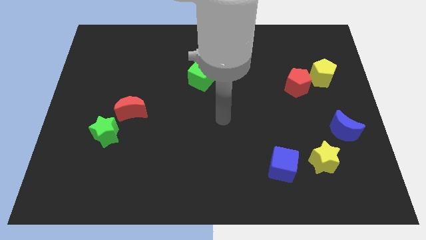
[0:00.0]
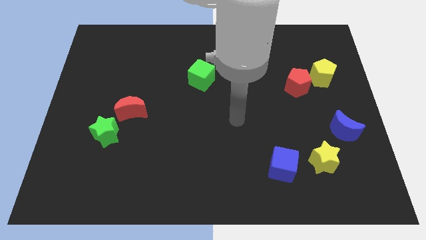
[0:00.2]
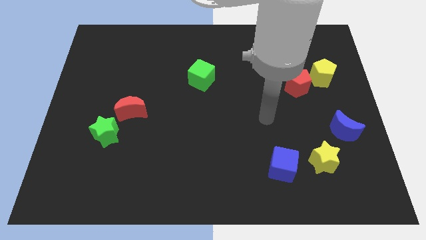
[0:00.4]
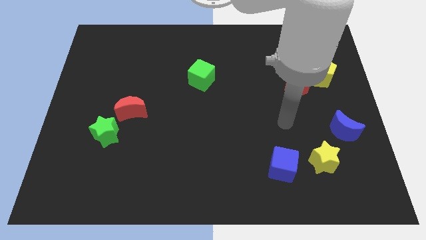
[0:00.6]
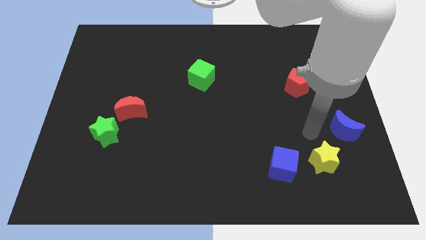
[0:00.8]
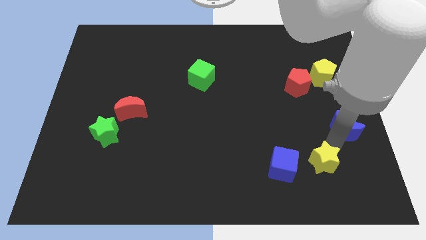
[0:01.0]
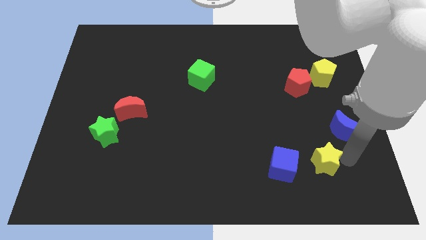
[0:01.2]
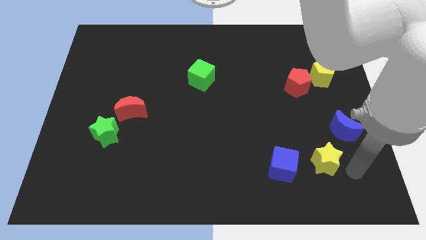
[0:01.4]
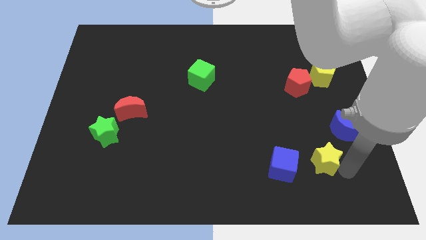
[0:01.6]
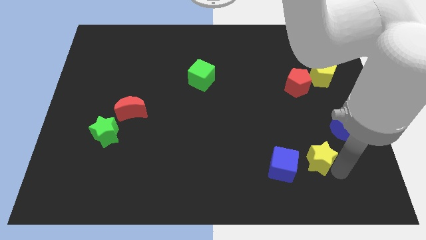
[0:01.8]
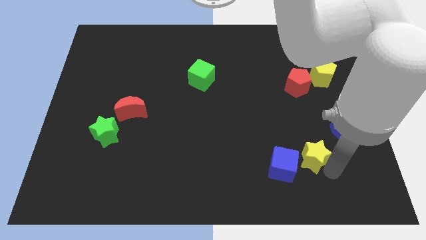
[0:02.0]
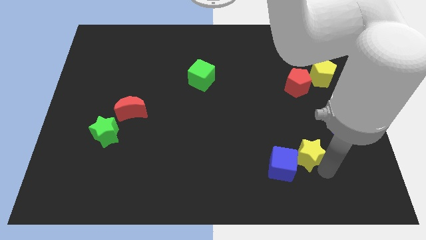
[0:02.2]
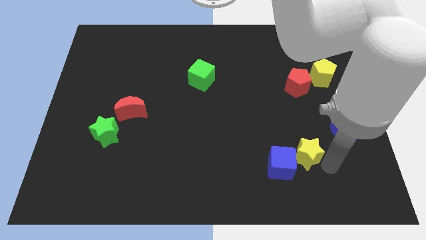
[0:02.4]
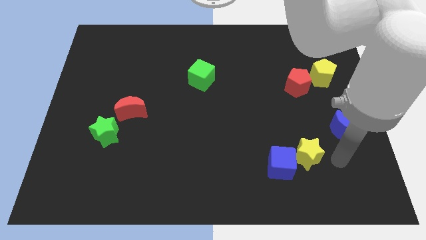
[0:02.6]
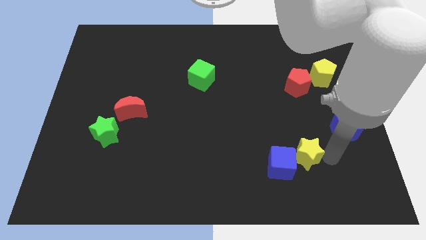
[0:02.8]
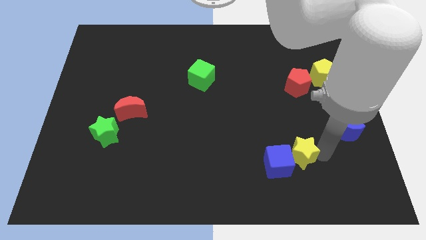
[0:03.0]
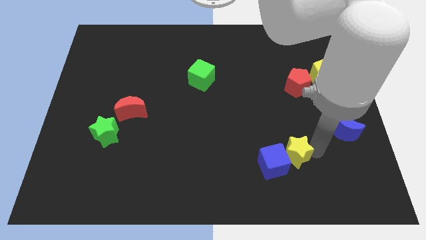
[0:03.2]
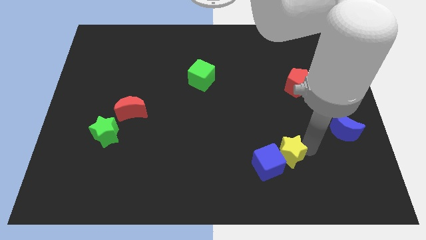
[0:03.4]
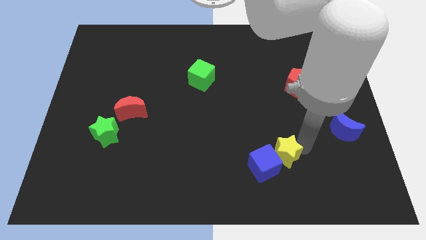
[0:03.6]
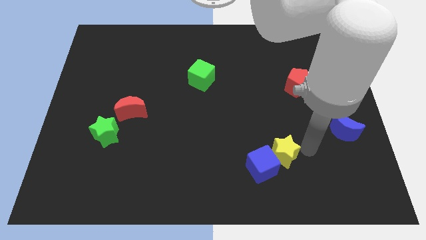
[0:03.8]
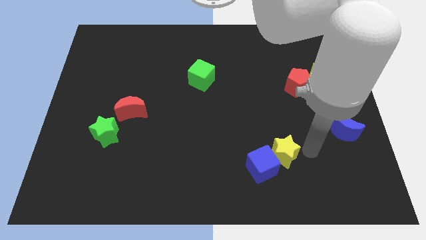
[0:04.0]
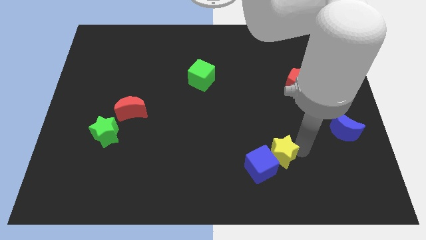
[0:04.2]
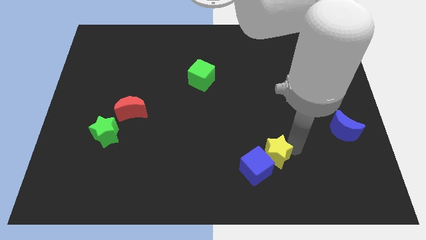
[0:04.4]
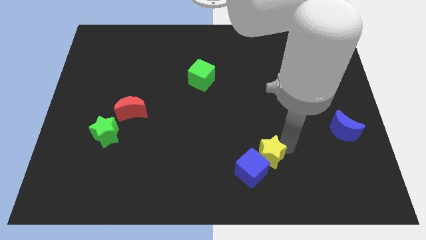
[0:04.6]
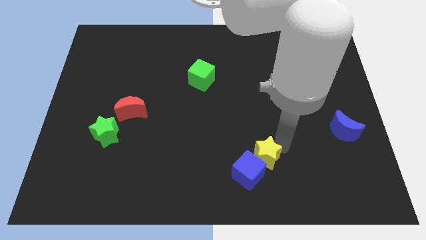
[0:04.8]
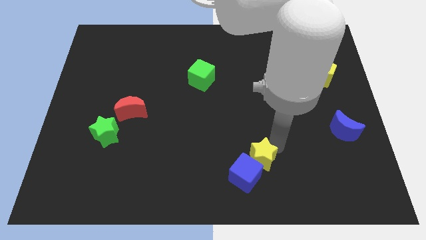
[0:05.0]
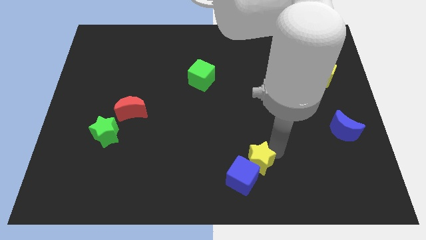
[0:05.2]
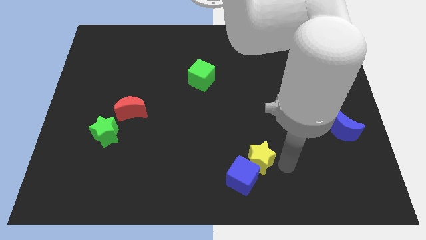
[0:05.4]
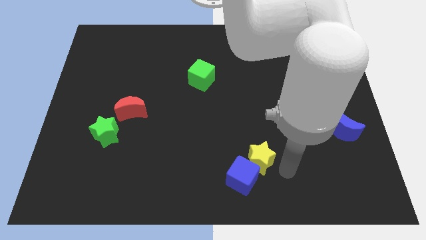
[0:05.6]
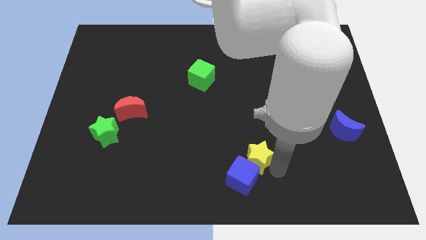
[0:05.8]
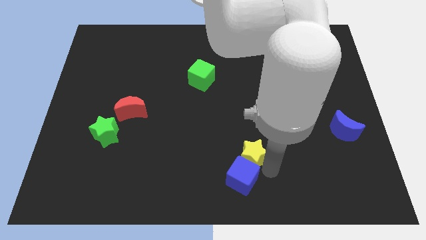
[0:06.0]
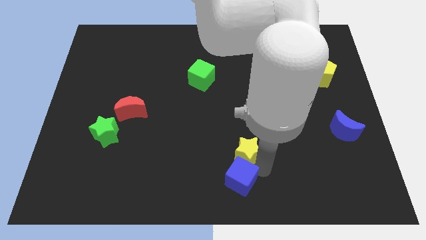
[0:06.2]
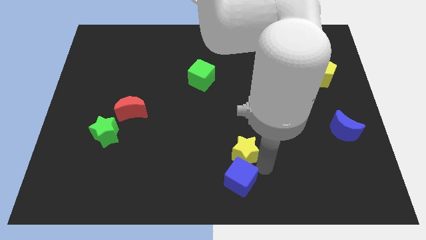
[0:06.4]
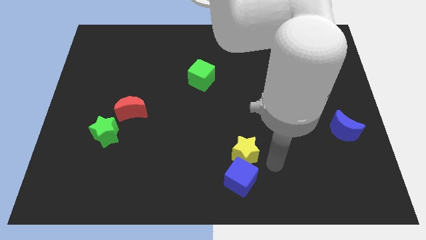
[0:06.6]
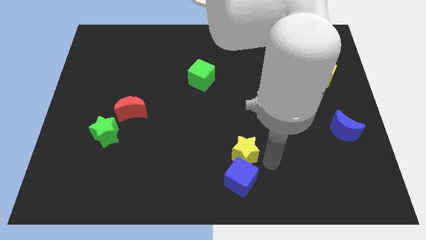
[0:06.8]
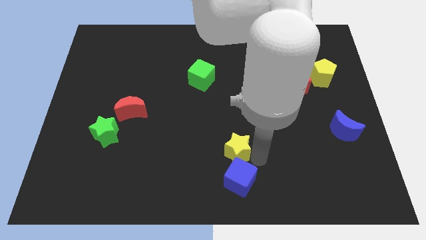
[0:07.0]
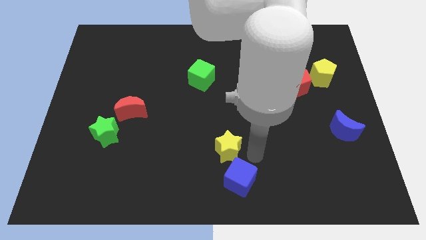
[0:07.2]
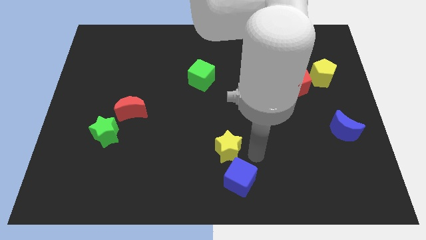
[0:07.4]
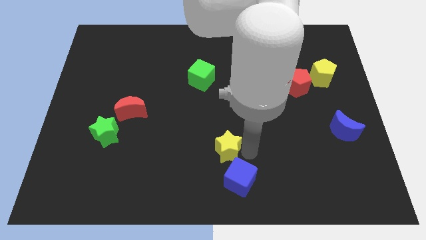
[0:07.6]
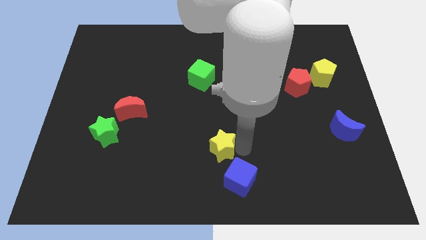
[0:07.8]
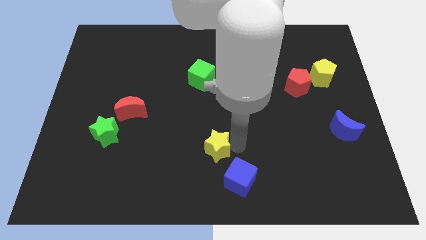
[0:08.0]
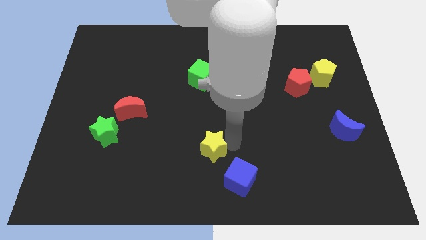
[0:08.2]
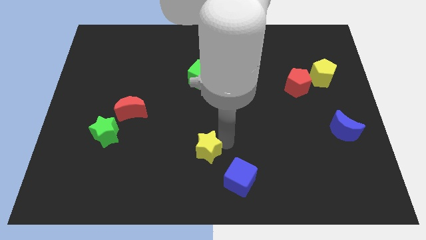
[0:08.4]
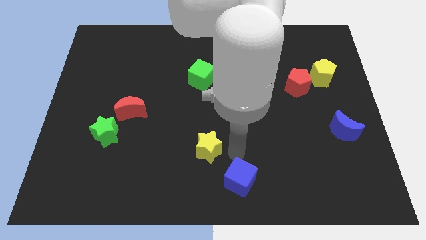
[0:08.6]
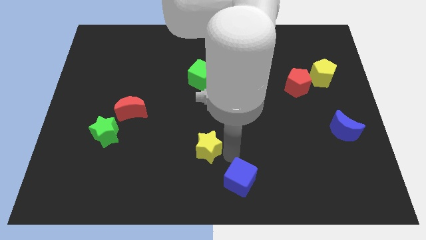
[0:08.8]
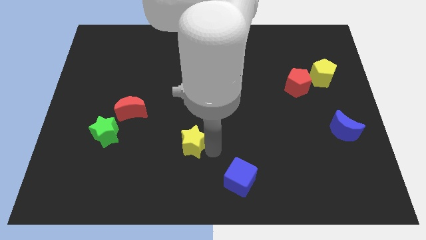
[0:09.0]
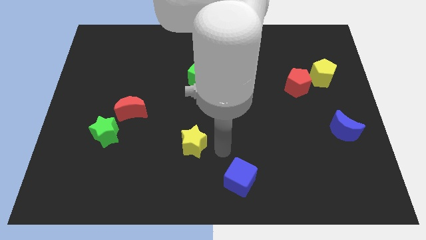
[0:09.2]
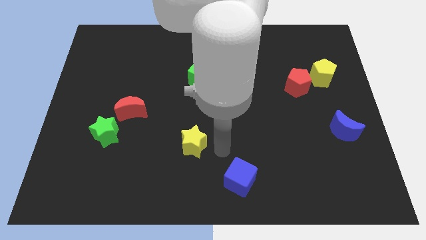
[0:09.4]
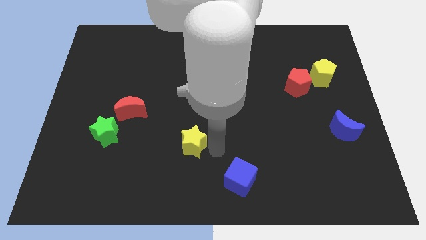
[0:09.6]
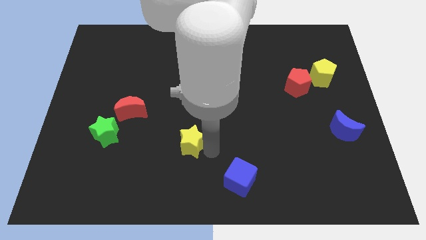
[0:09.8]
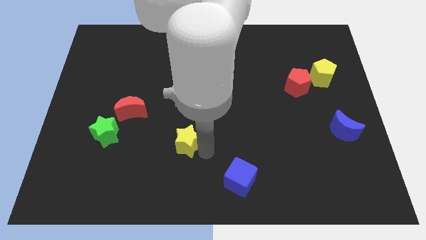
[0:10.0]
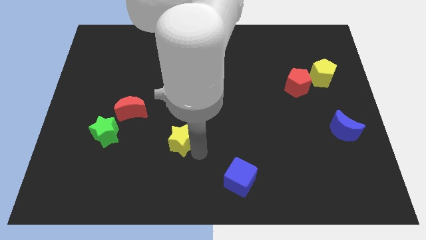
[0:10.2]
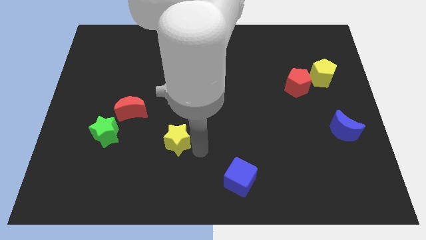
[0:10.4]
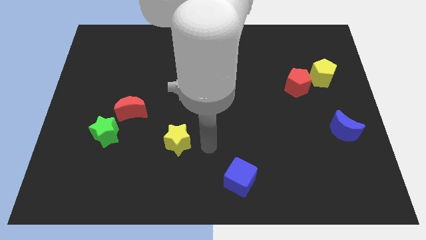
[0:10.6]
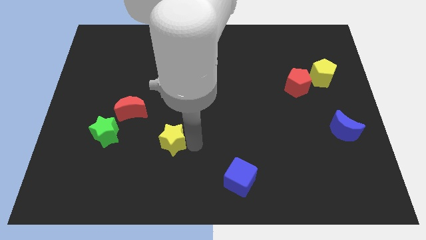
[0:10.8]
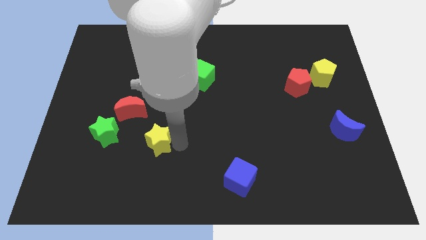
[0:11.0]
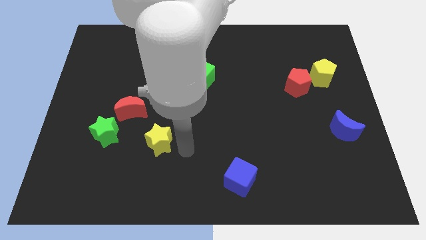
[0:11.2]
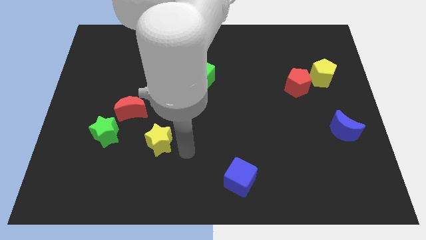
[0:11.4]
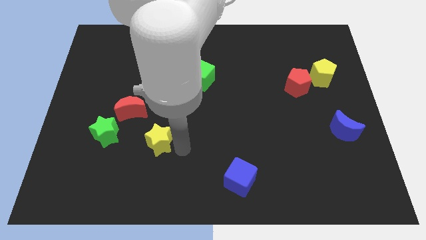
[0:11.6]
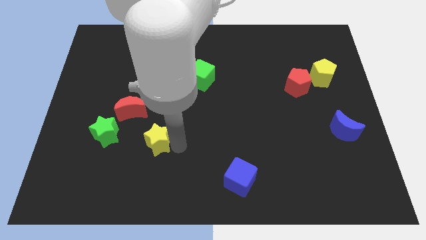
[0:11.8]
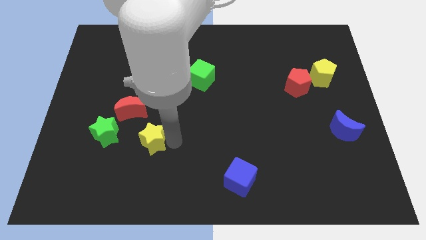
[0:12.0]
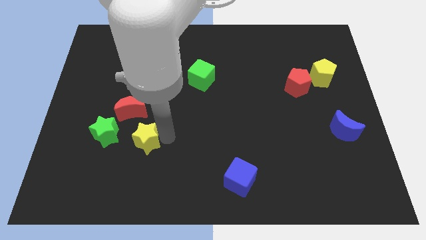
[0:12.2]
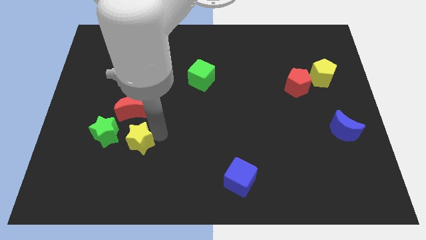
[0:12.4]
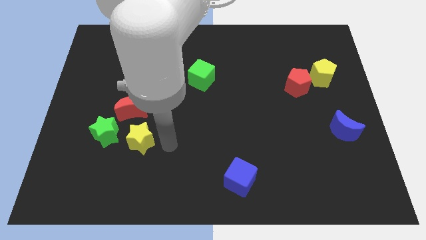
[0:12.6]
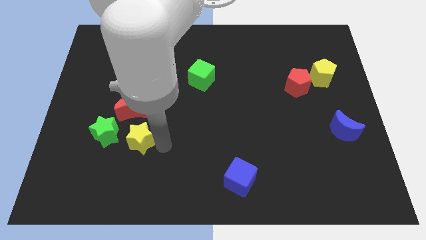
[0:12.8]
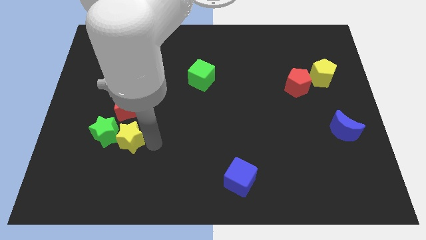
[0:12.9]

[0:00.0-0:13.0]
move the yellow star towards the green star
